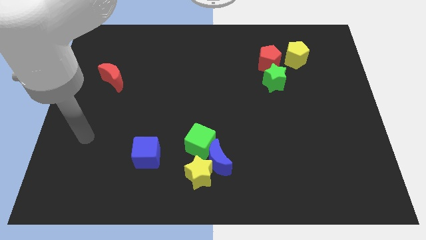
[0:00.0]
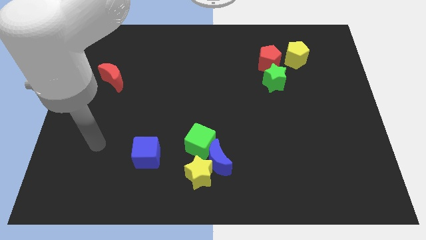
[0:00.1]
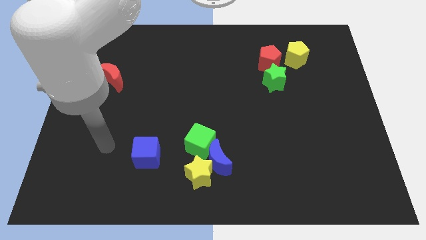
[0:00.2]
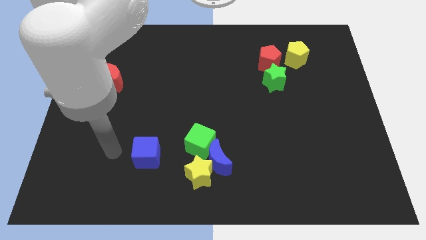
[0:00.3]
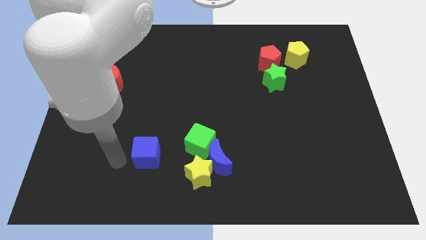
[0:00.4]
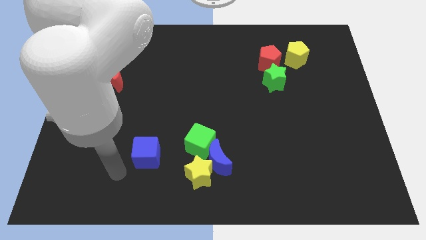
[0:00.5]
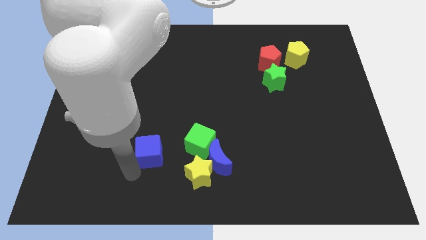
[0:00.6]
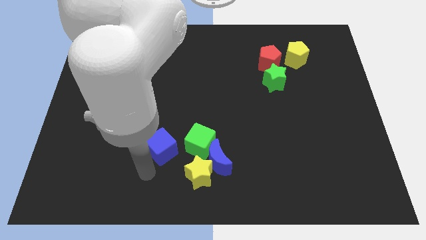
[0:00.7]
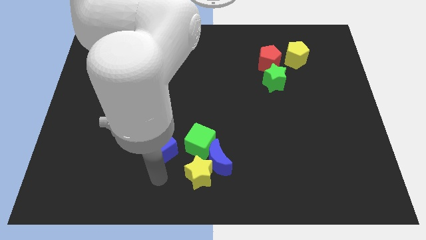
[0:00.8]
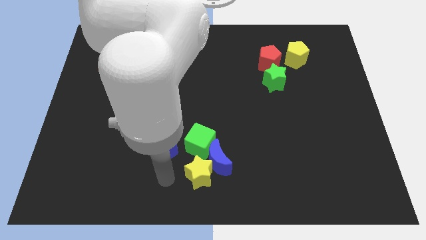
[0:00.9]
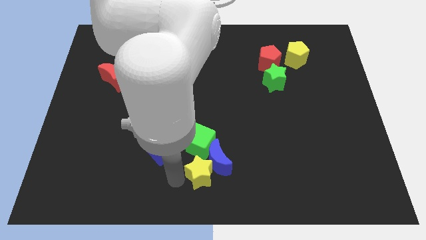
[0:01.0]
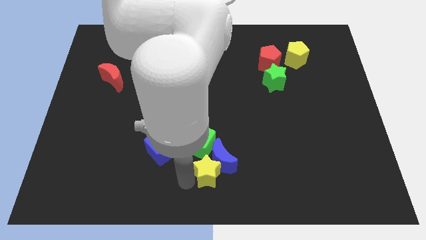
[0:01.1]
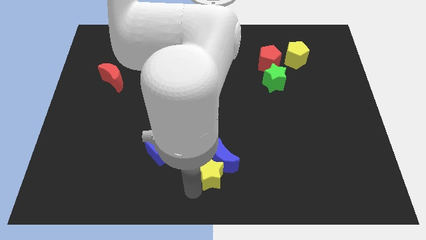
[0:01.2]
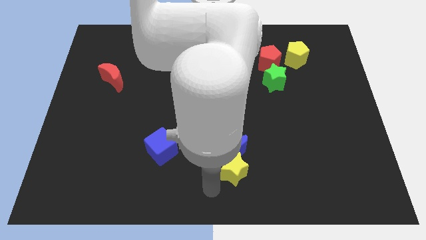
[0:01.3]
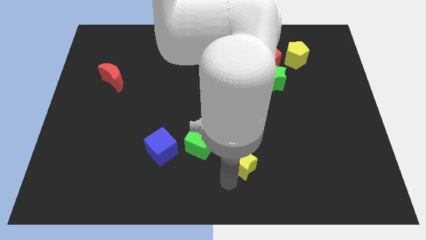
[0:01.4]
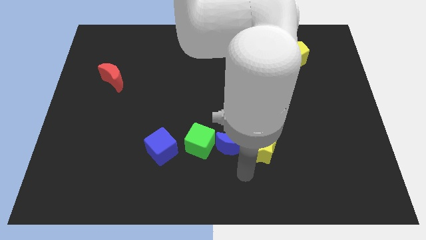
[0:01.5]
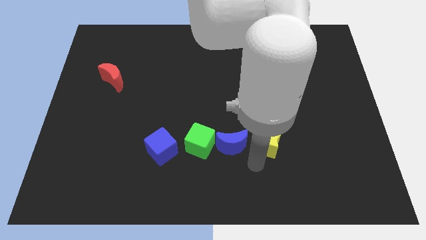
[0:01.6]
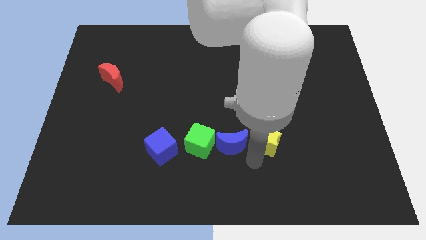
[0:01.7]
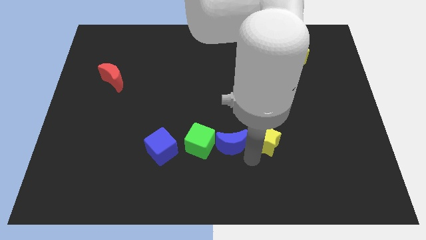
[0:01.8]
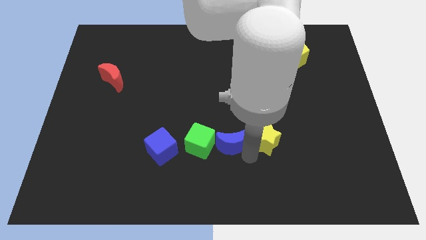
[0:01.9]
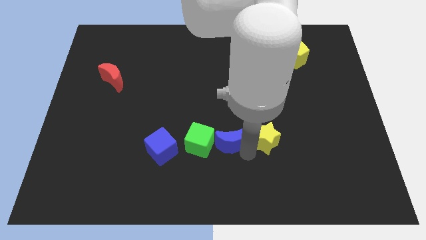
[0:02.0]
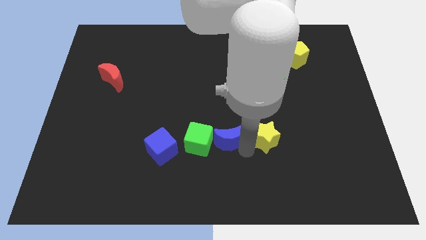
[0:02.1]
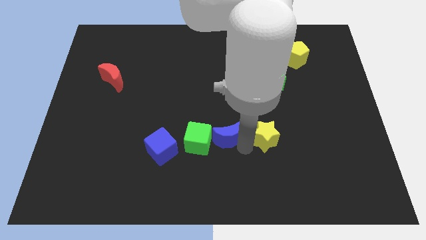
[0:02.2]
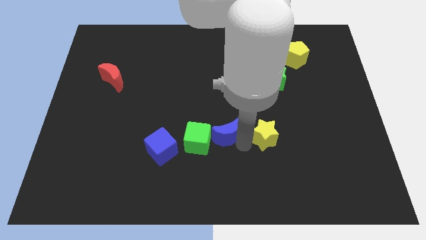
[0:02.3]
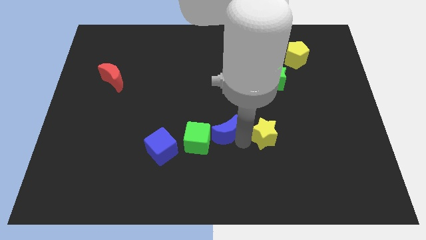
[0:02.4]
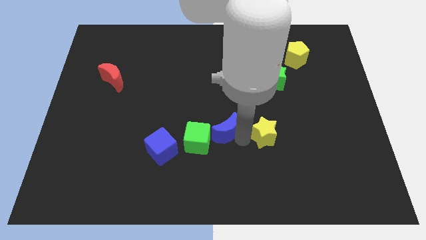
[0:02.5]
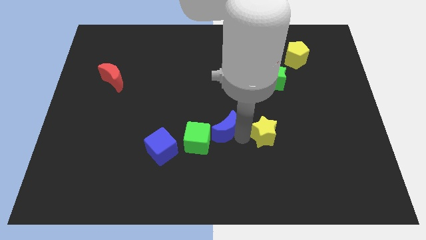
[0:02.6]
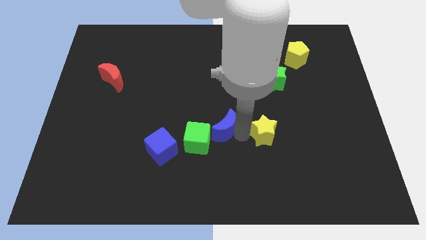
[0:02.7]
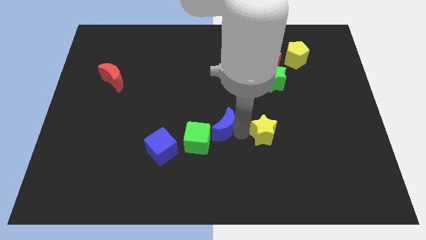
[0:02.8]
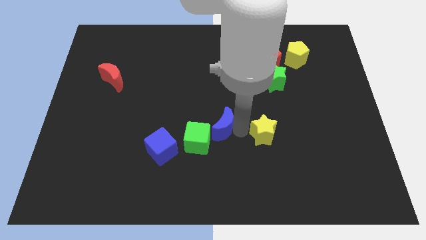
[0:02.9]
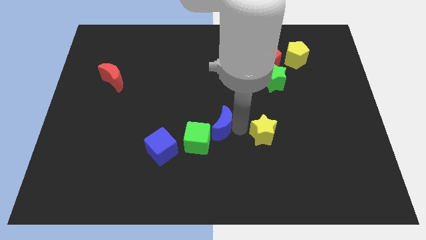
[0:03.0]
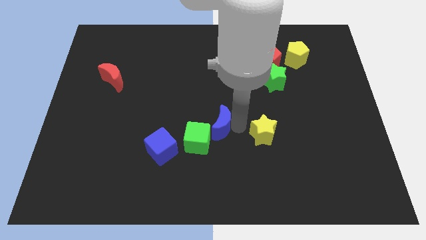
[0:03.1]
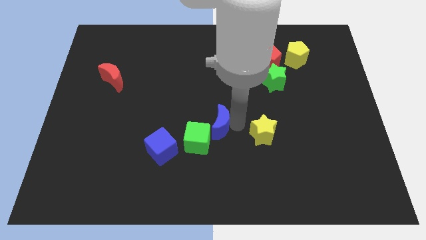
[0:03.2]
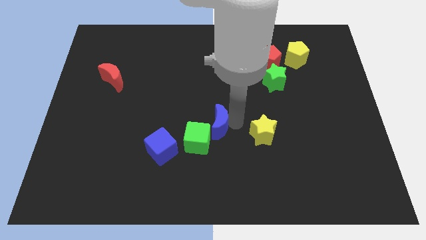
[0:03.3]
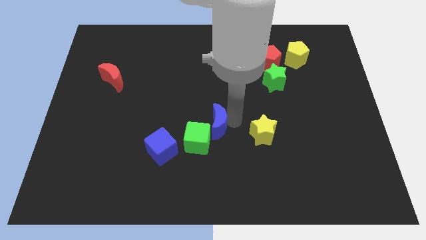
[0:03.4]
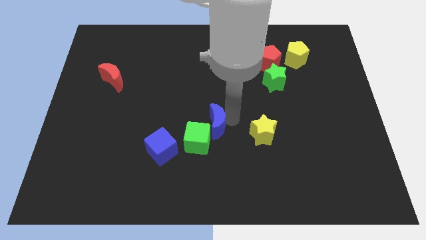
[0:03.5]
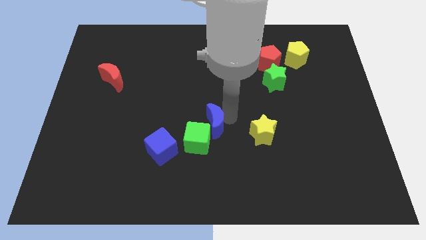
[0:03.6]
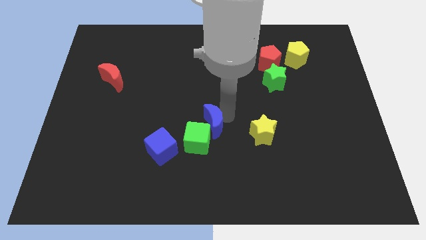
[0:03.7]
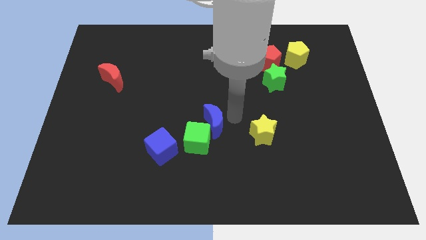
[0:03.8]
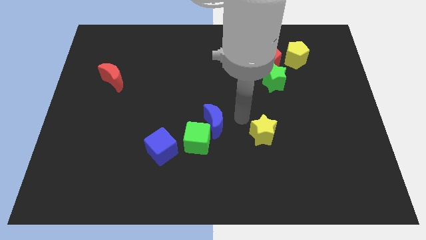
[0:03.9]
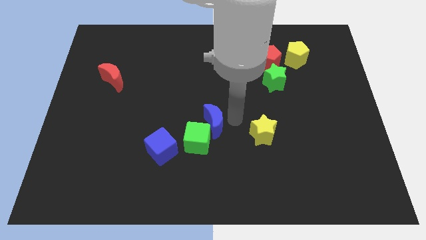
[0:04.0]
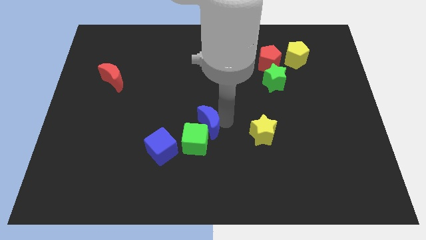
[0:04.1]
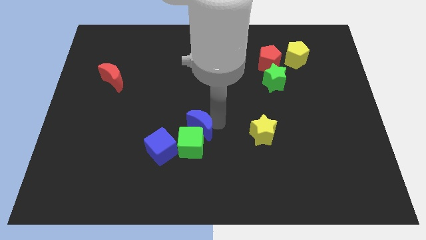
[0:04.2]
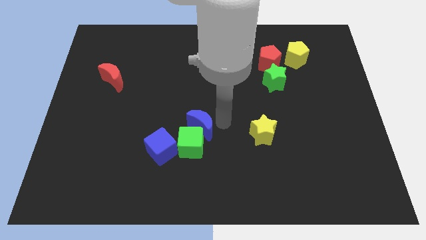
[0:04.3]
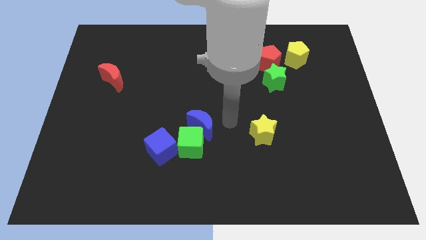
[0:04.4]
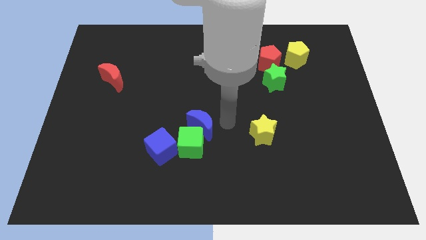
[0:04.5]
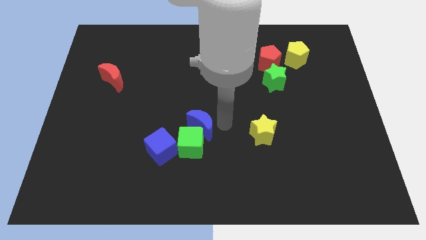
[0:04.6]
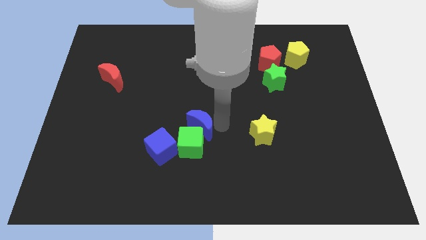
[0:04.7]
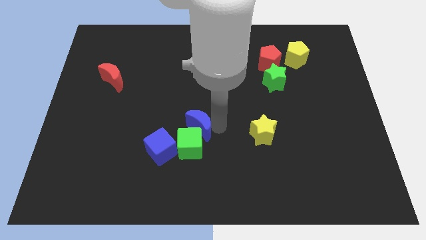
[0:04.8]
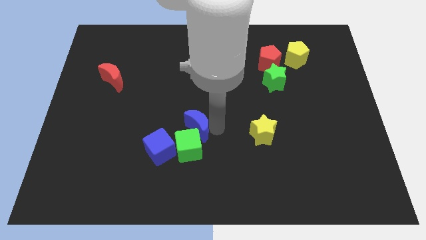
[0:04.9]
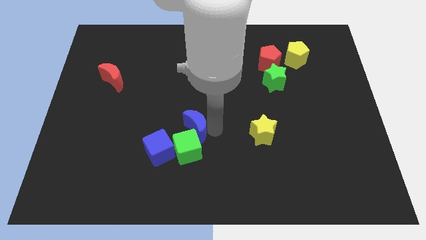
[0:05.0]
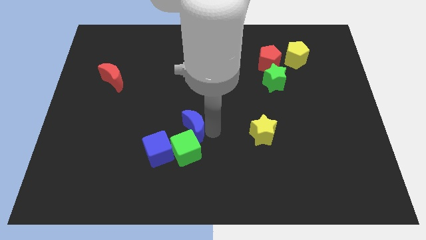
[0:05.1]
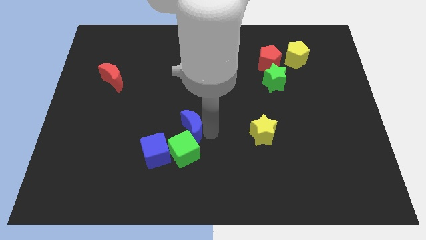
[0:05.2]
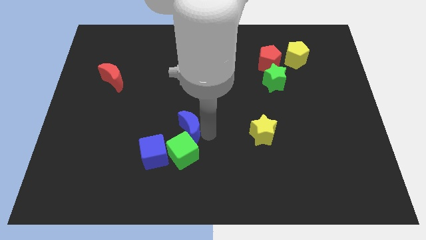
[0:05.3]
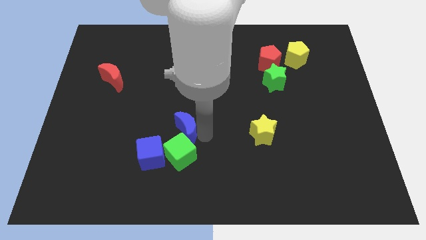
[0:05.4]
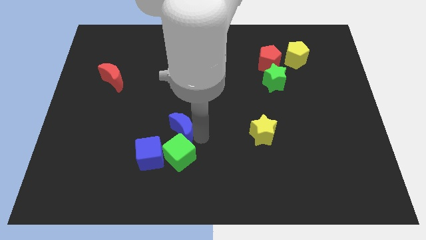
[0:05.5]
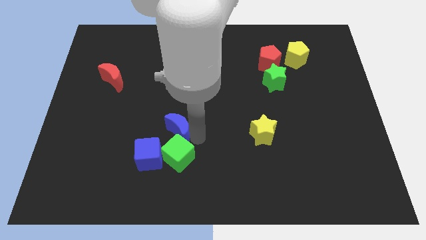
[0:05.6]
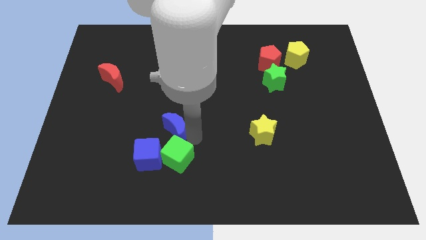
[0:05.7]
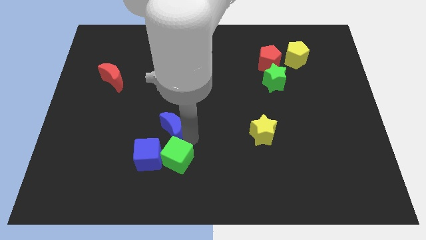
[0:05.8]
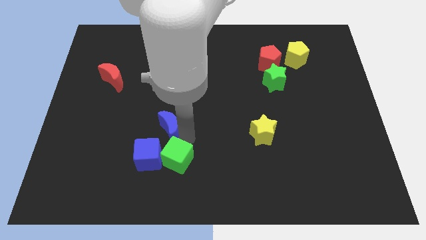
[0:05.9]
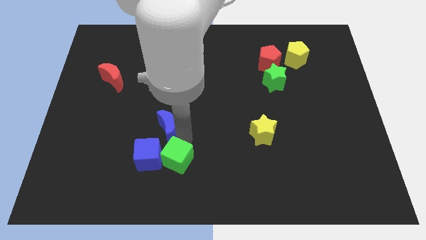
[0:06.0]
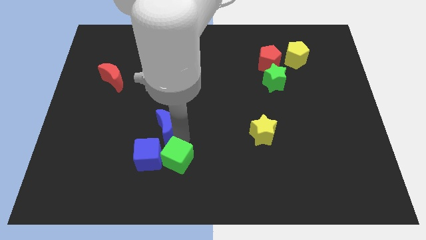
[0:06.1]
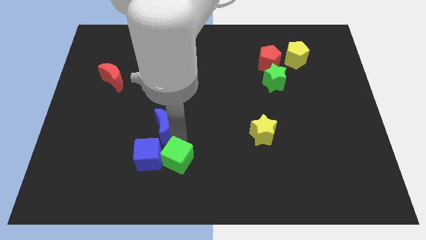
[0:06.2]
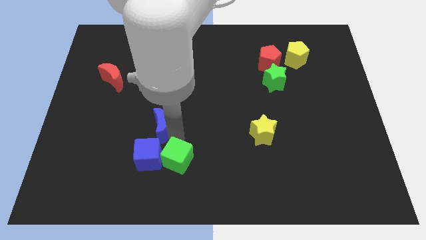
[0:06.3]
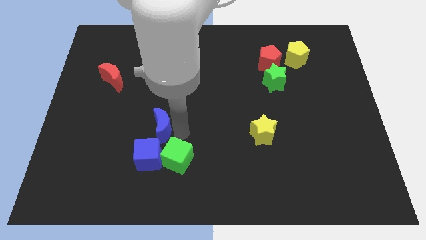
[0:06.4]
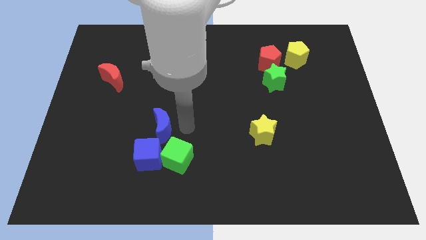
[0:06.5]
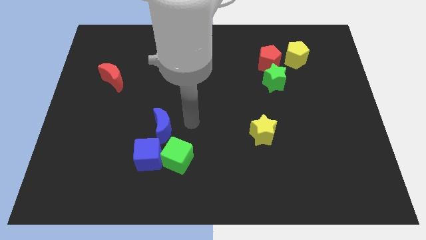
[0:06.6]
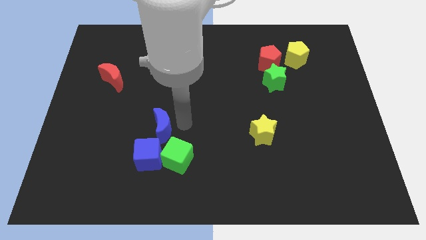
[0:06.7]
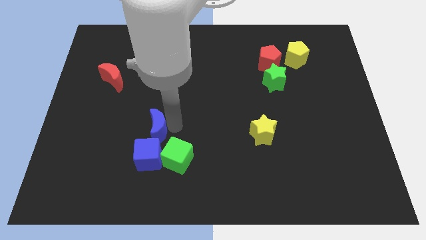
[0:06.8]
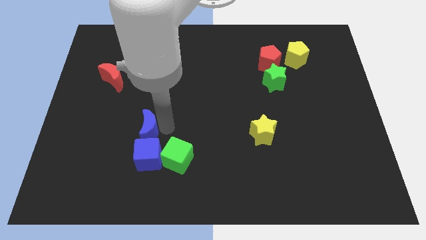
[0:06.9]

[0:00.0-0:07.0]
slide the blue moon to the top left side of the blue cube
